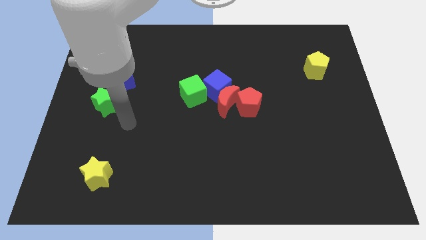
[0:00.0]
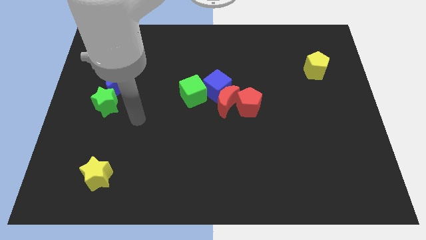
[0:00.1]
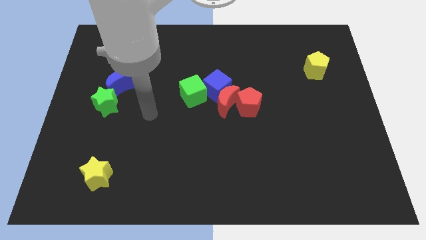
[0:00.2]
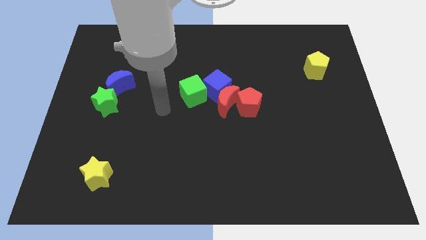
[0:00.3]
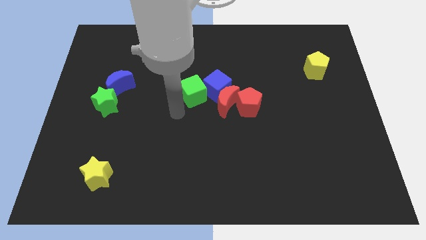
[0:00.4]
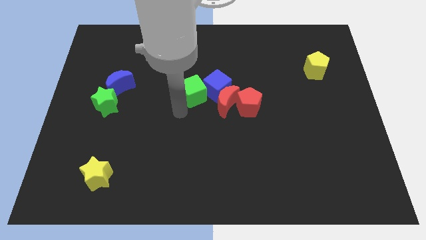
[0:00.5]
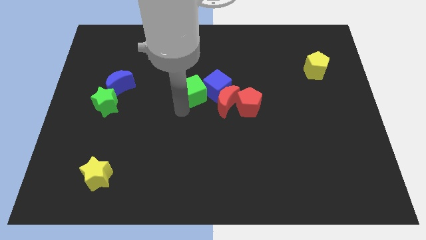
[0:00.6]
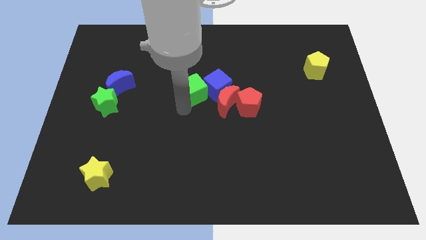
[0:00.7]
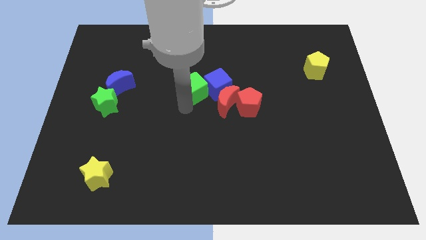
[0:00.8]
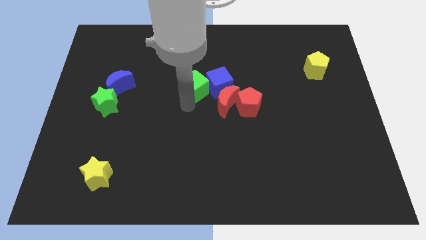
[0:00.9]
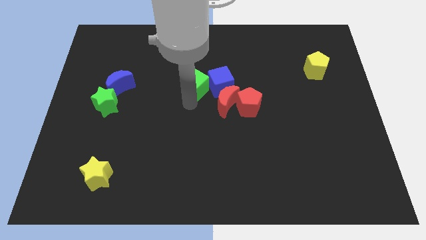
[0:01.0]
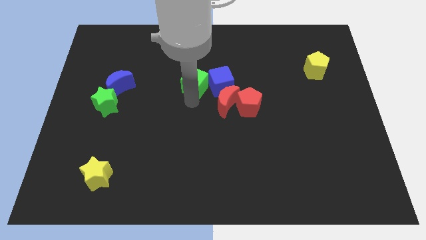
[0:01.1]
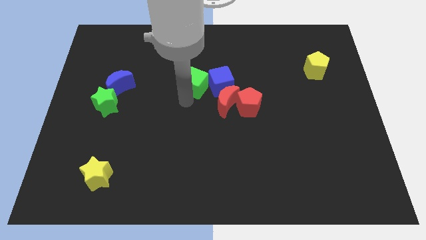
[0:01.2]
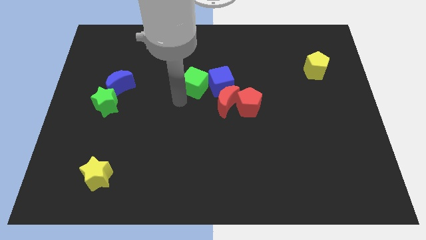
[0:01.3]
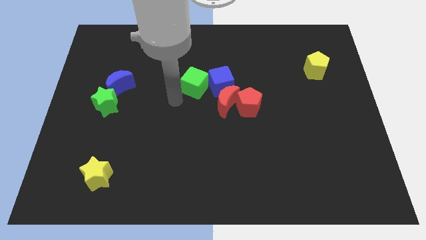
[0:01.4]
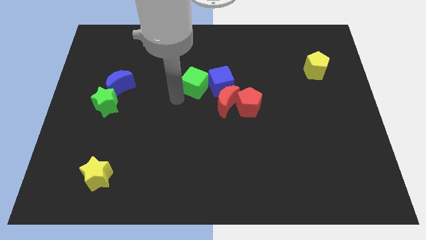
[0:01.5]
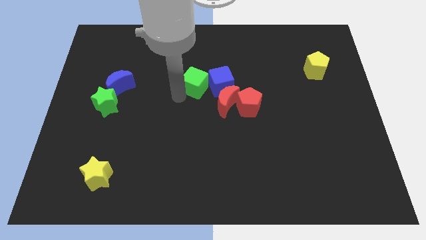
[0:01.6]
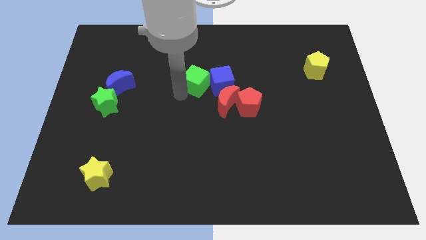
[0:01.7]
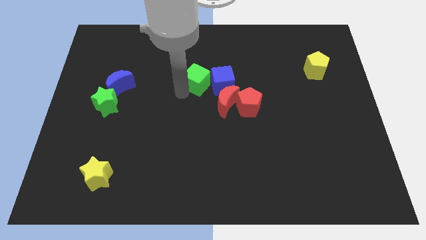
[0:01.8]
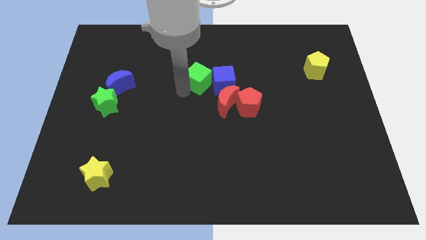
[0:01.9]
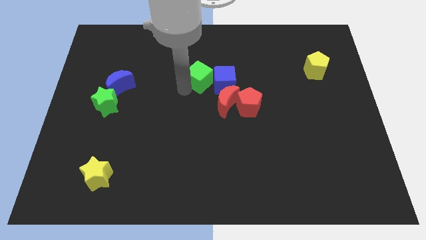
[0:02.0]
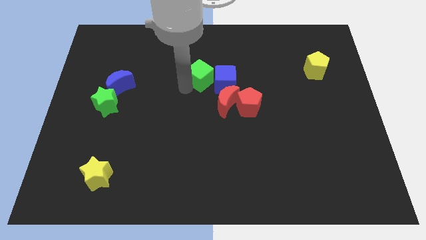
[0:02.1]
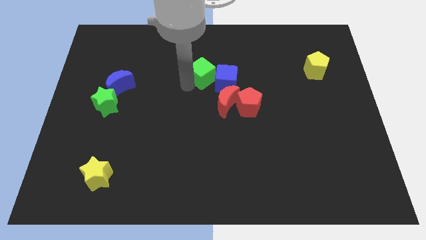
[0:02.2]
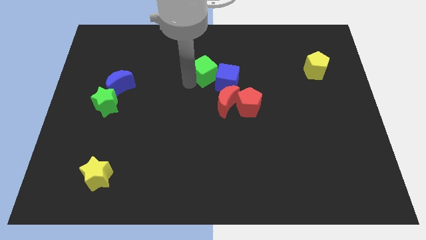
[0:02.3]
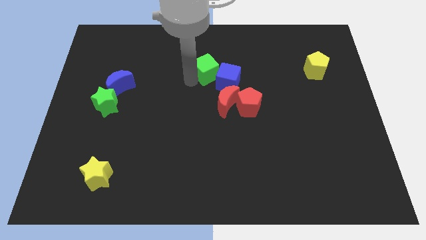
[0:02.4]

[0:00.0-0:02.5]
move the green cube up and right slightly

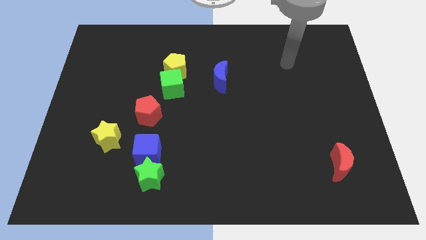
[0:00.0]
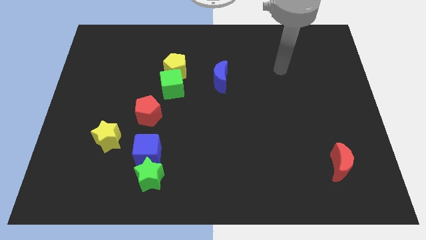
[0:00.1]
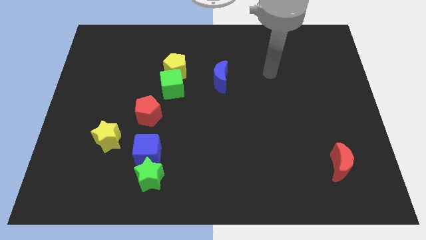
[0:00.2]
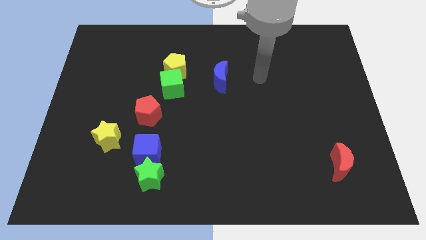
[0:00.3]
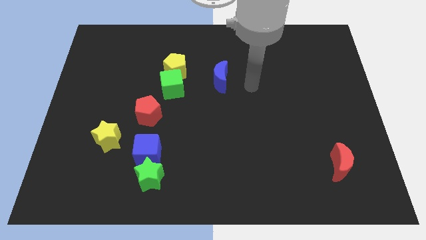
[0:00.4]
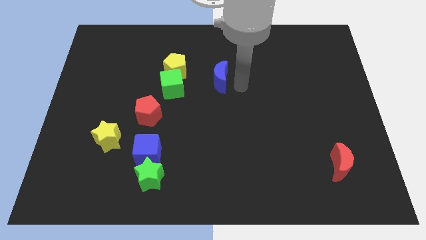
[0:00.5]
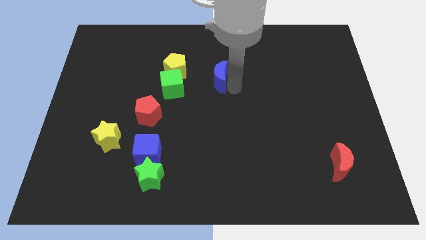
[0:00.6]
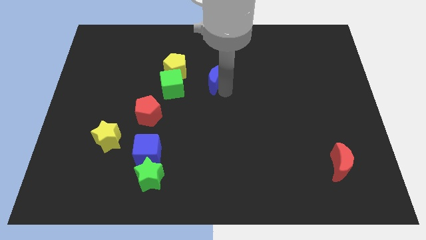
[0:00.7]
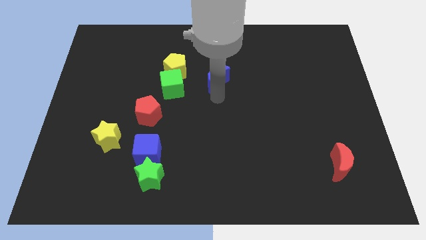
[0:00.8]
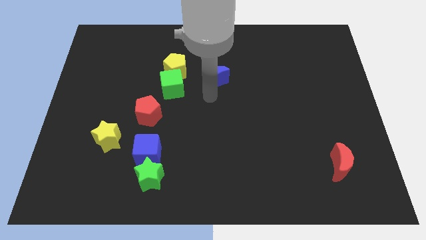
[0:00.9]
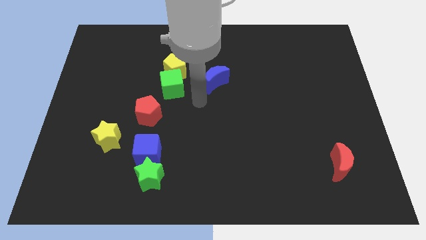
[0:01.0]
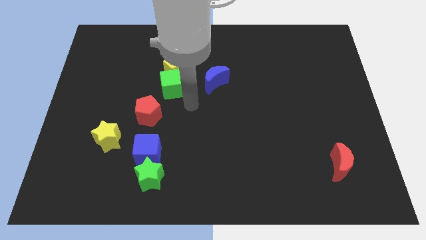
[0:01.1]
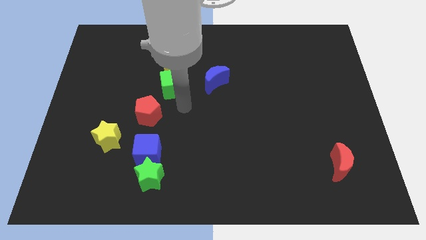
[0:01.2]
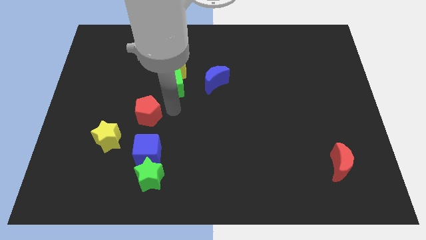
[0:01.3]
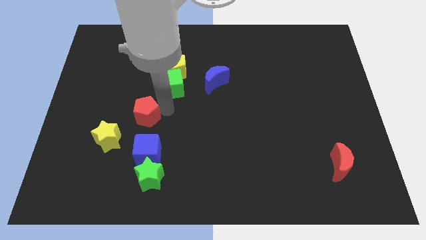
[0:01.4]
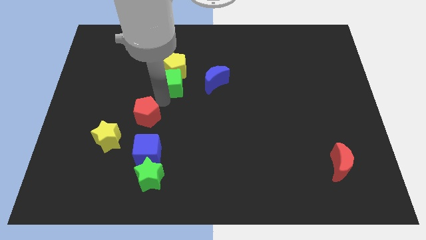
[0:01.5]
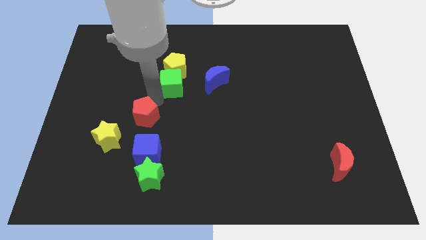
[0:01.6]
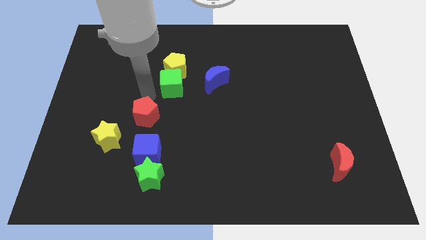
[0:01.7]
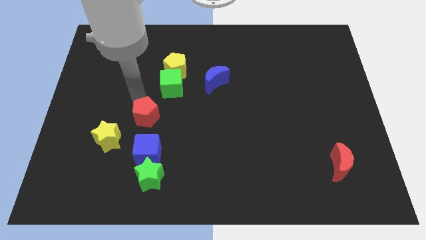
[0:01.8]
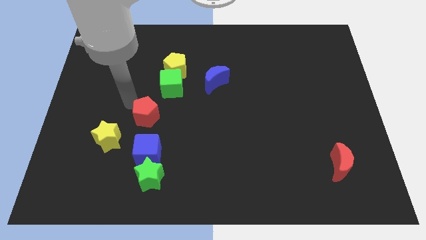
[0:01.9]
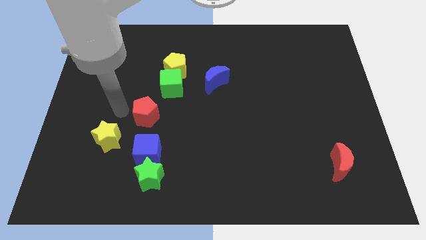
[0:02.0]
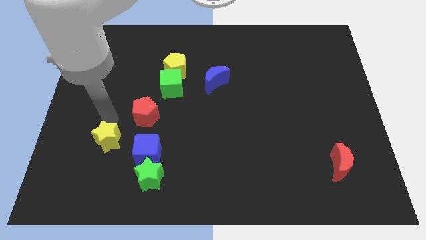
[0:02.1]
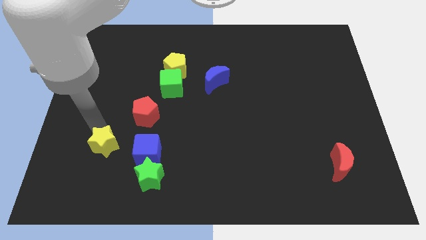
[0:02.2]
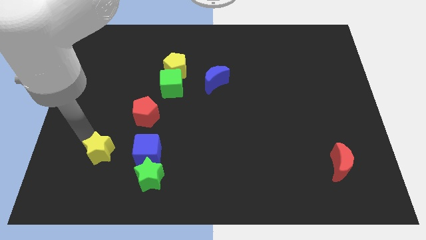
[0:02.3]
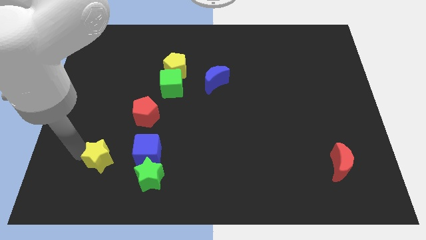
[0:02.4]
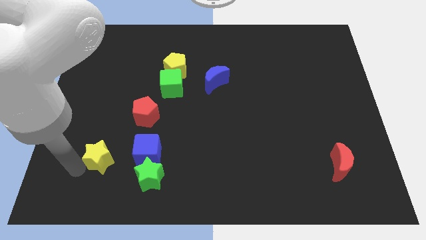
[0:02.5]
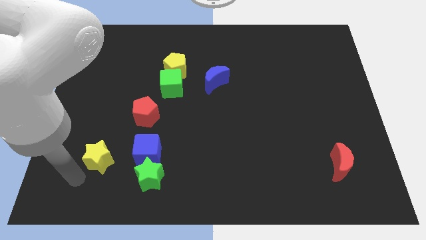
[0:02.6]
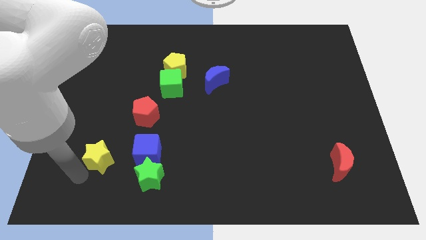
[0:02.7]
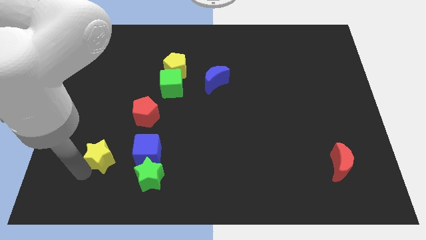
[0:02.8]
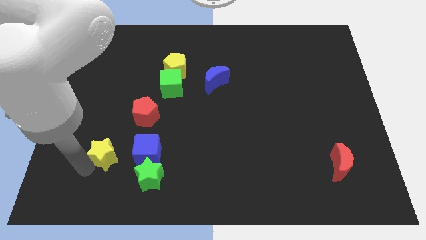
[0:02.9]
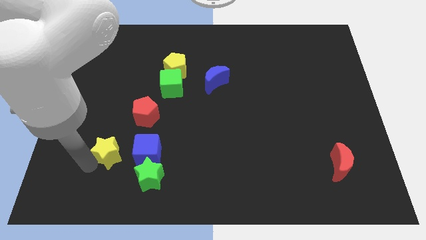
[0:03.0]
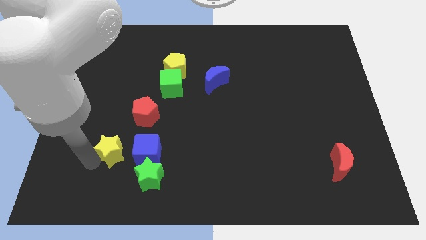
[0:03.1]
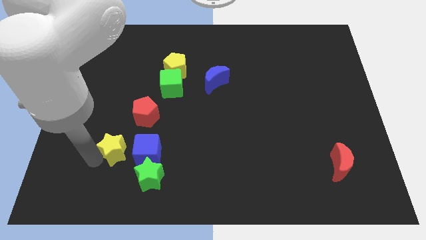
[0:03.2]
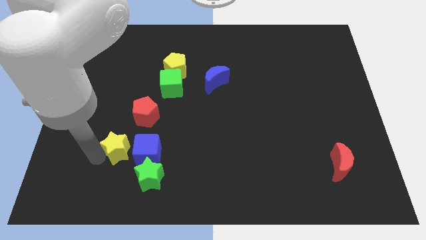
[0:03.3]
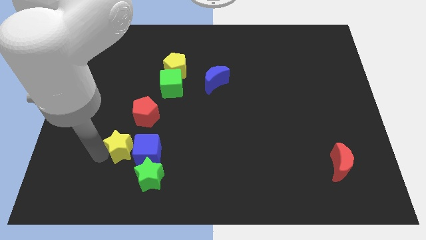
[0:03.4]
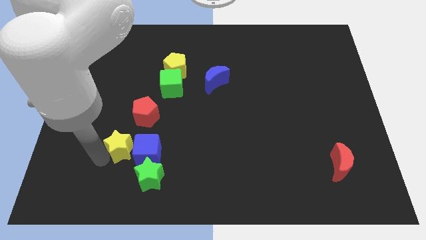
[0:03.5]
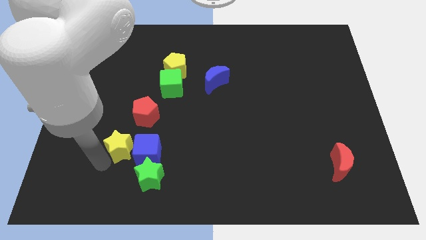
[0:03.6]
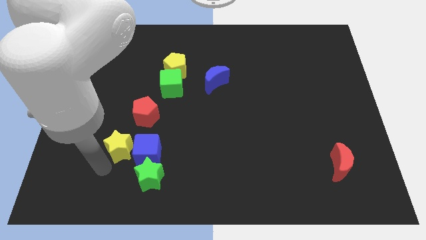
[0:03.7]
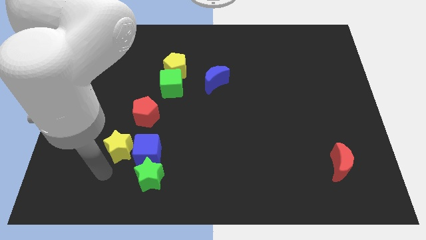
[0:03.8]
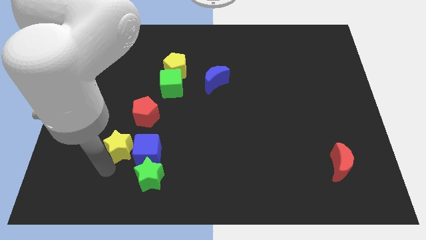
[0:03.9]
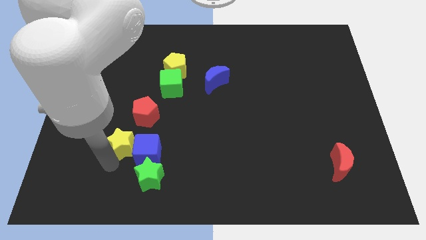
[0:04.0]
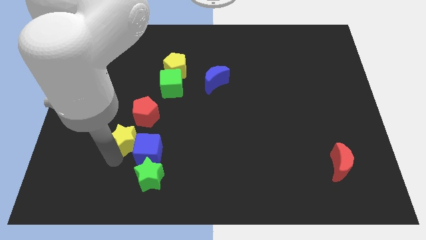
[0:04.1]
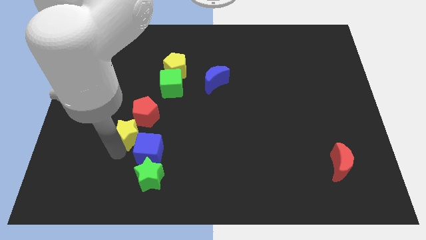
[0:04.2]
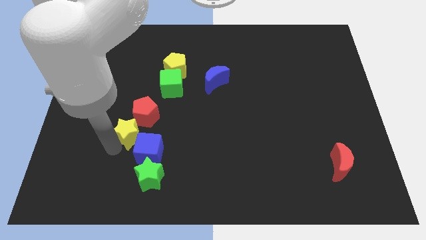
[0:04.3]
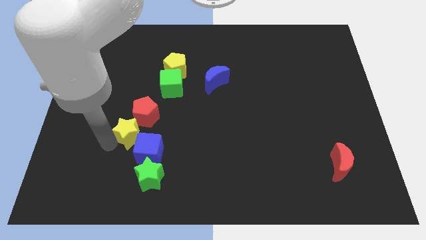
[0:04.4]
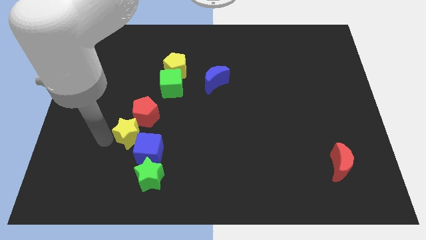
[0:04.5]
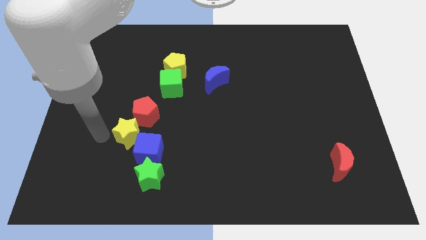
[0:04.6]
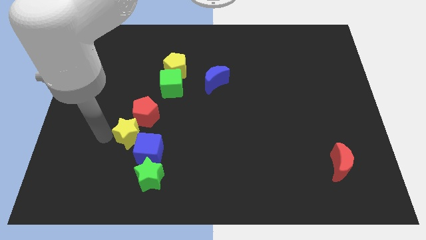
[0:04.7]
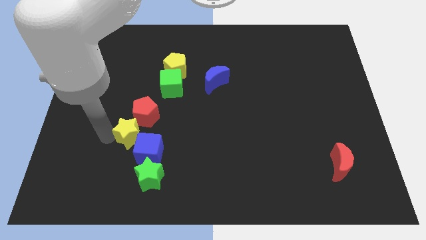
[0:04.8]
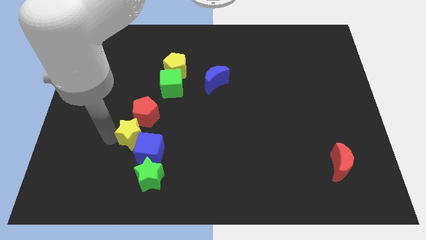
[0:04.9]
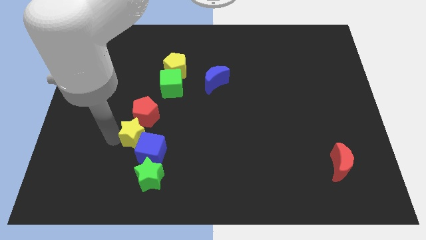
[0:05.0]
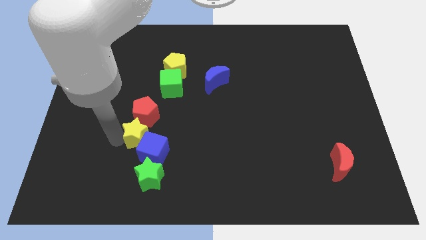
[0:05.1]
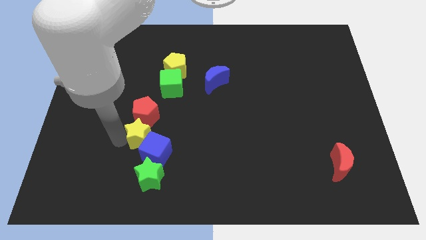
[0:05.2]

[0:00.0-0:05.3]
slide the yellow star to the right a little bit

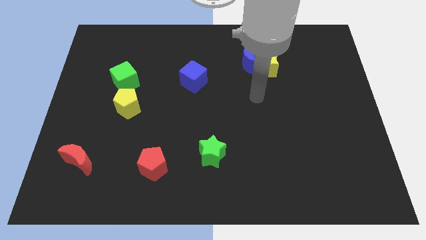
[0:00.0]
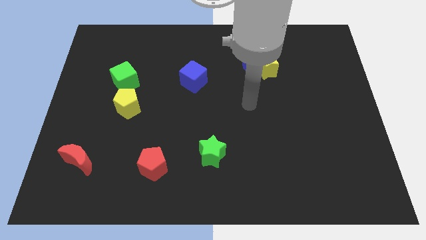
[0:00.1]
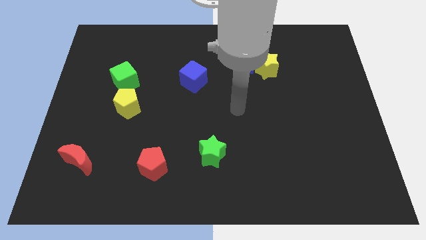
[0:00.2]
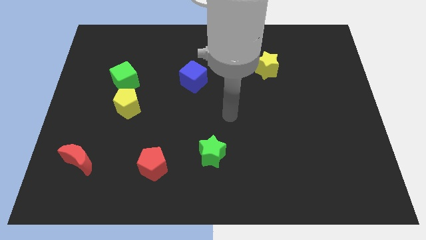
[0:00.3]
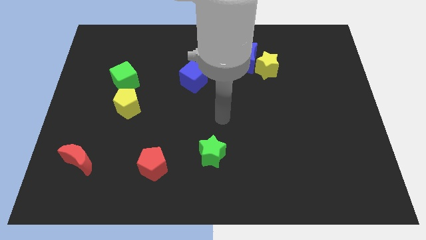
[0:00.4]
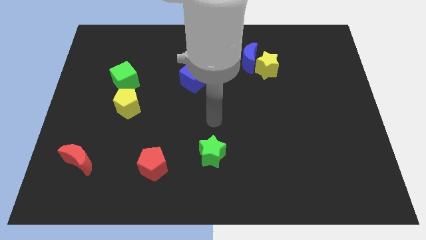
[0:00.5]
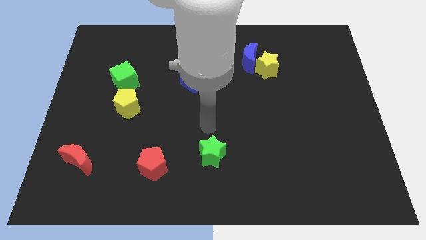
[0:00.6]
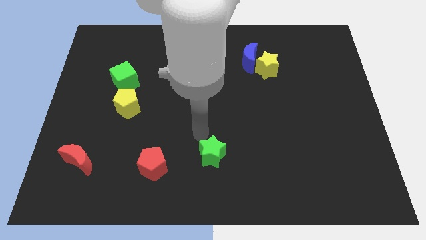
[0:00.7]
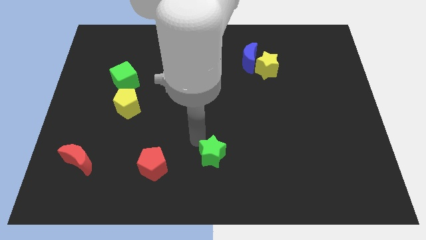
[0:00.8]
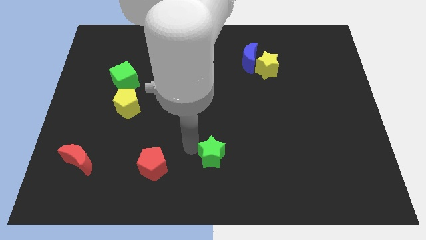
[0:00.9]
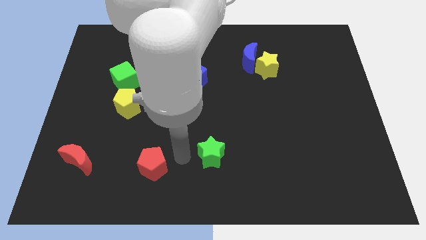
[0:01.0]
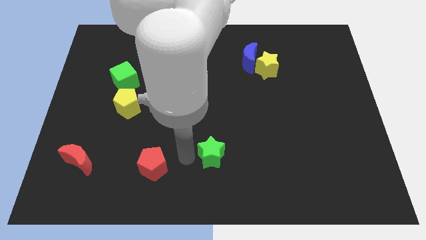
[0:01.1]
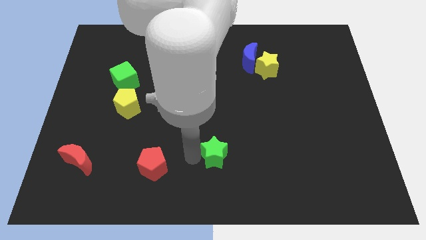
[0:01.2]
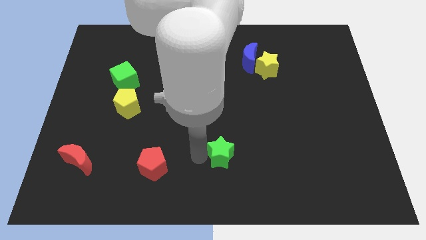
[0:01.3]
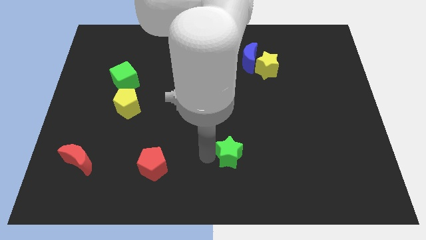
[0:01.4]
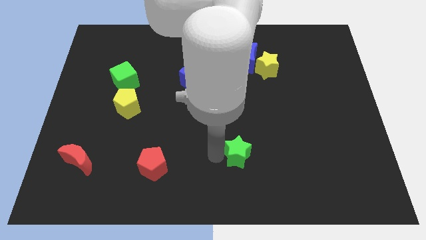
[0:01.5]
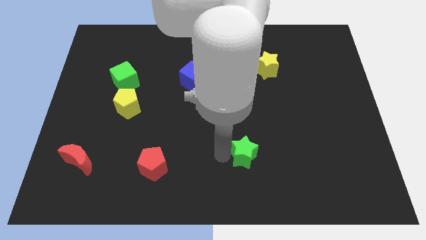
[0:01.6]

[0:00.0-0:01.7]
push the green star a little bit right
